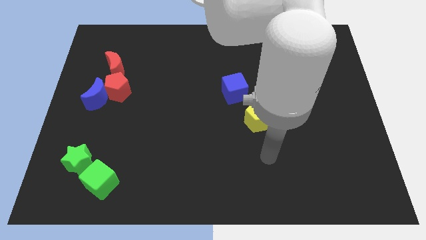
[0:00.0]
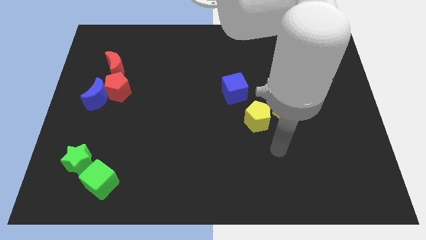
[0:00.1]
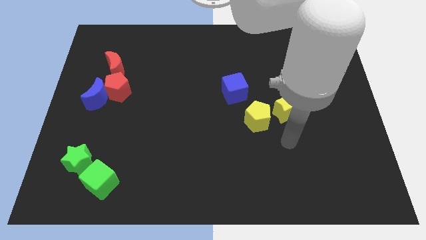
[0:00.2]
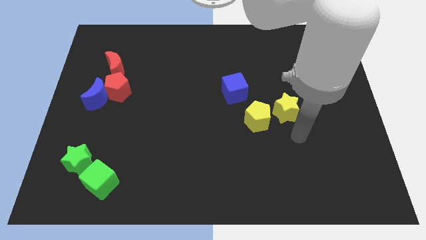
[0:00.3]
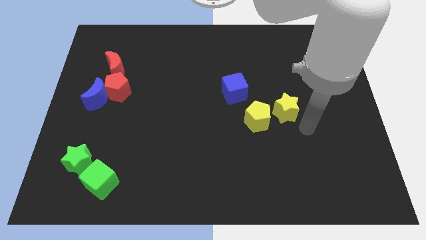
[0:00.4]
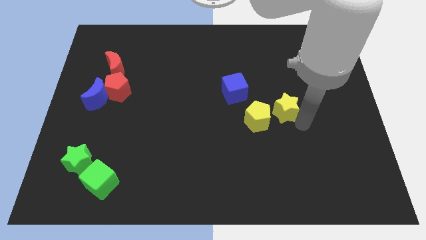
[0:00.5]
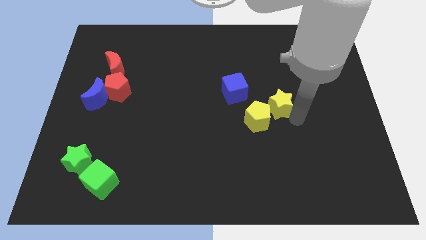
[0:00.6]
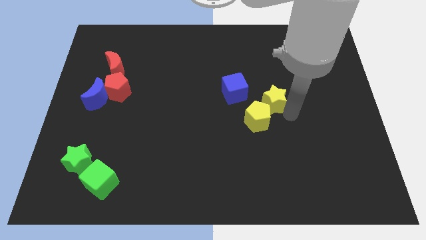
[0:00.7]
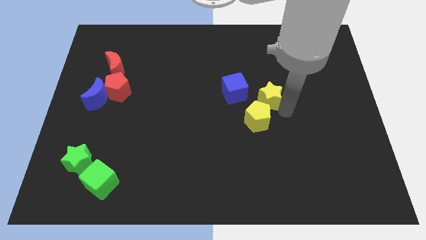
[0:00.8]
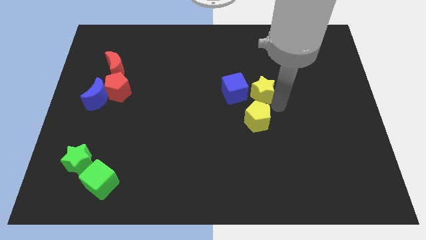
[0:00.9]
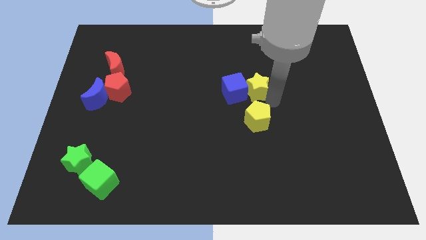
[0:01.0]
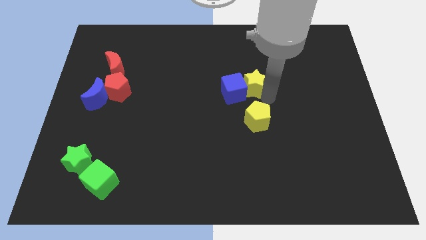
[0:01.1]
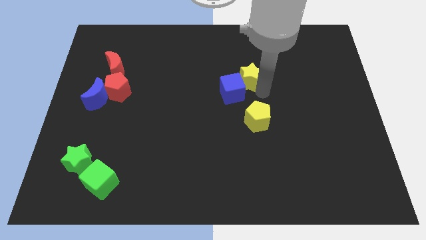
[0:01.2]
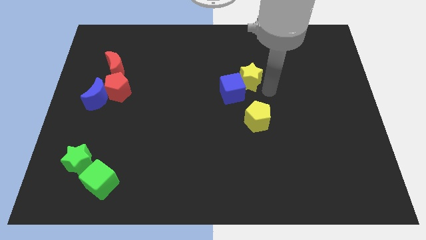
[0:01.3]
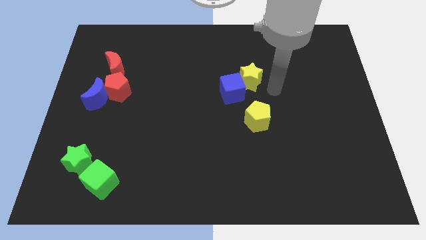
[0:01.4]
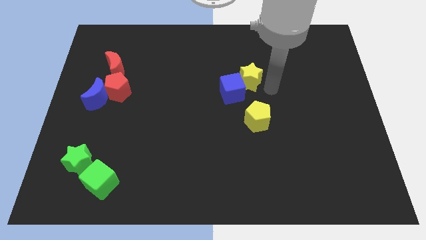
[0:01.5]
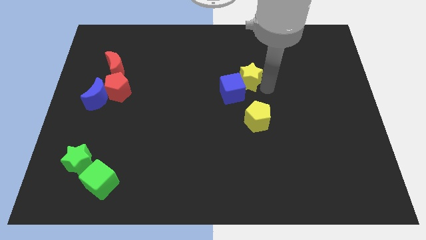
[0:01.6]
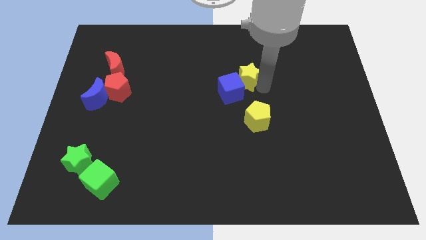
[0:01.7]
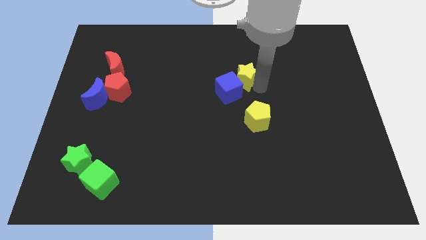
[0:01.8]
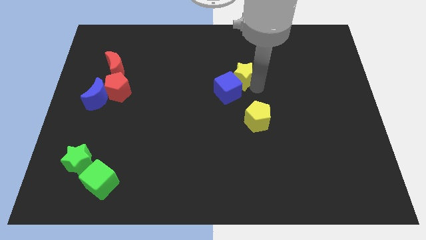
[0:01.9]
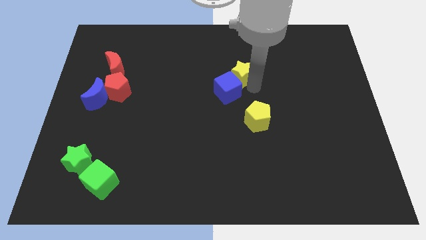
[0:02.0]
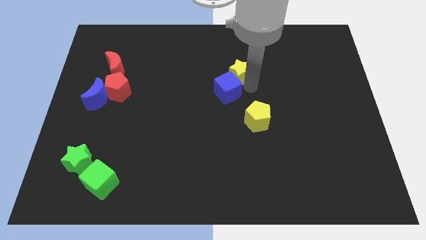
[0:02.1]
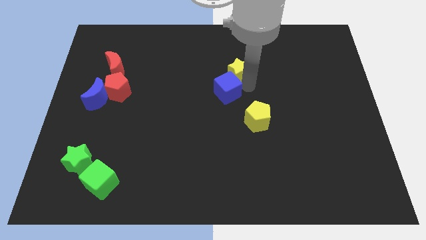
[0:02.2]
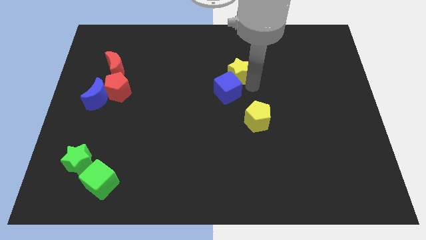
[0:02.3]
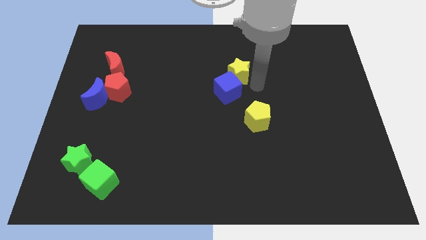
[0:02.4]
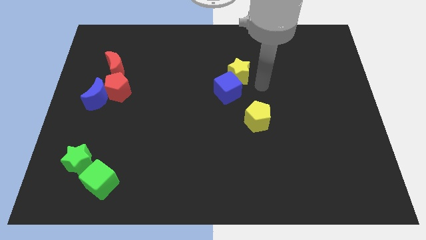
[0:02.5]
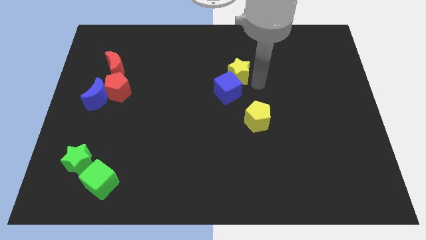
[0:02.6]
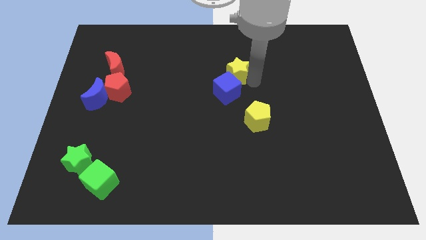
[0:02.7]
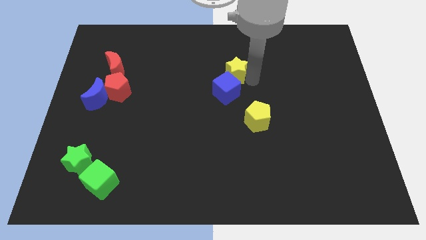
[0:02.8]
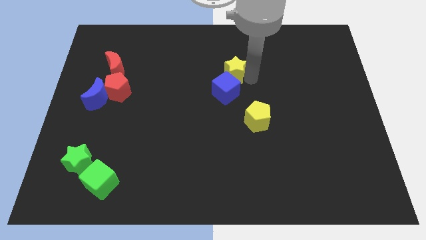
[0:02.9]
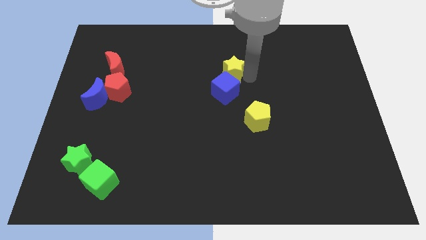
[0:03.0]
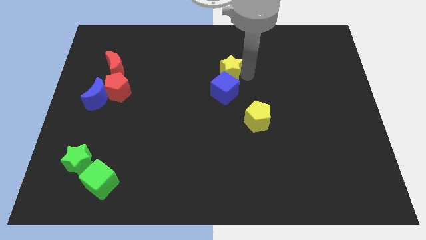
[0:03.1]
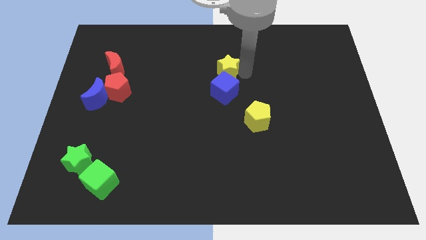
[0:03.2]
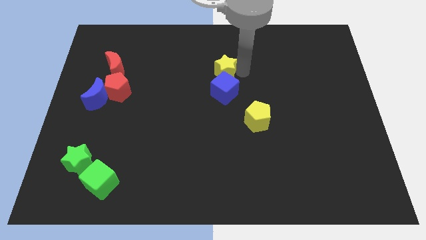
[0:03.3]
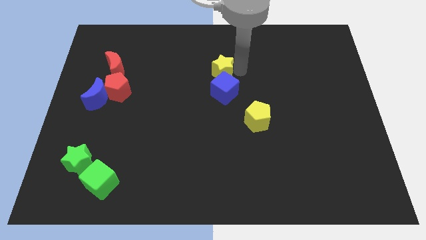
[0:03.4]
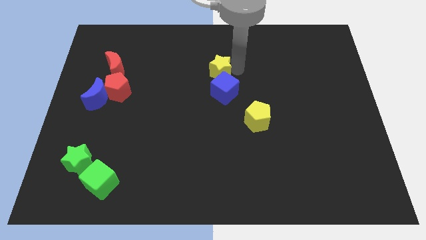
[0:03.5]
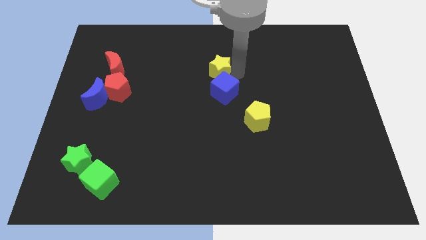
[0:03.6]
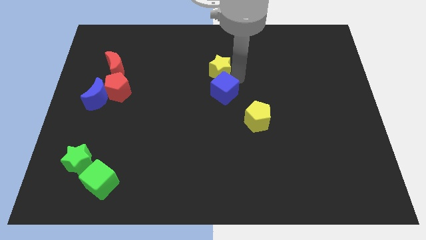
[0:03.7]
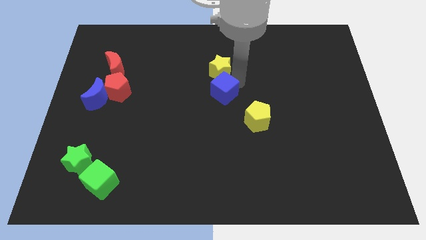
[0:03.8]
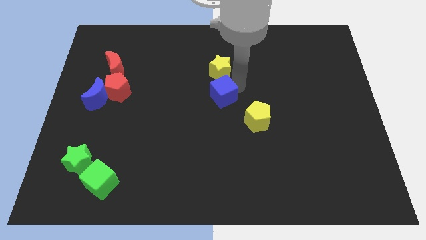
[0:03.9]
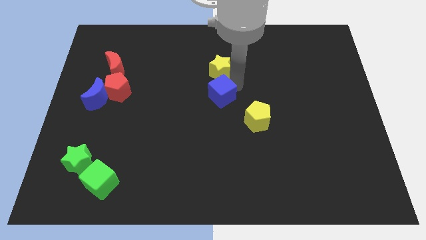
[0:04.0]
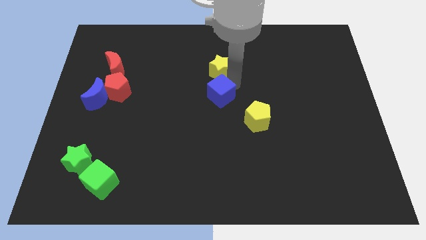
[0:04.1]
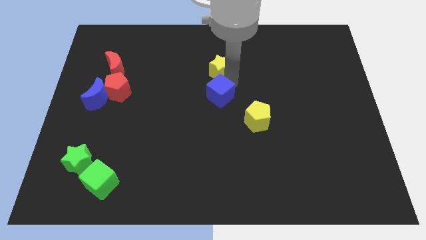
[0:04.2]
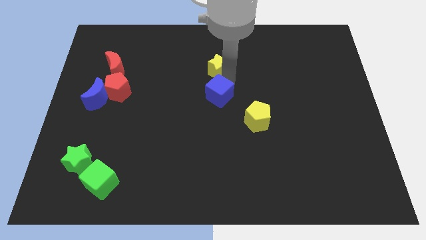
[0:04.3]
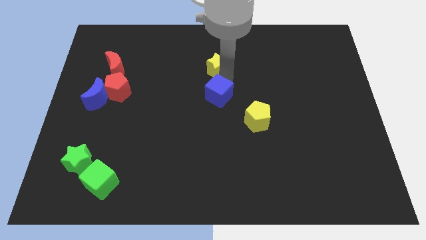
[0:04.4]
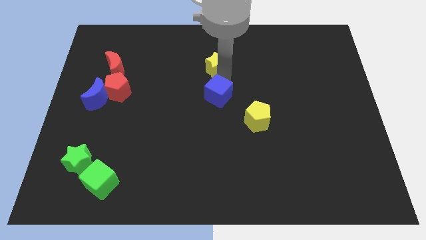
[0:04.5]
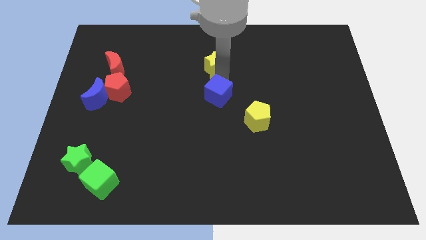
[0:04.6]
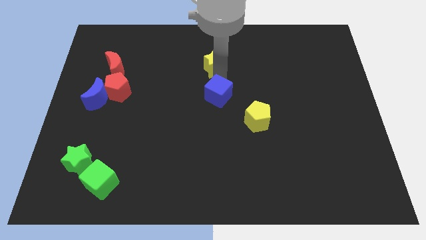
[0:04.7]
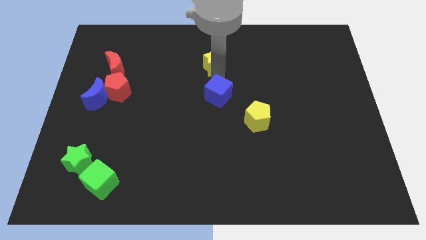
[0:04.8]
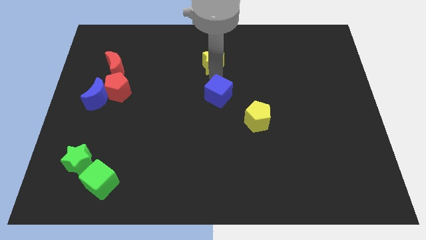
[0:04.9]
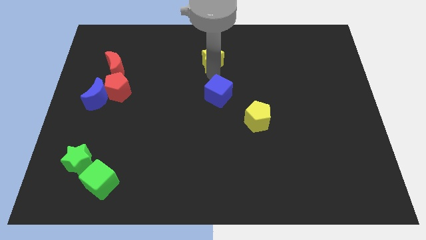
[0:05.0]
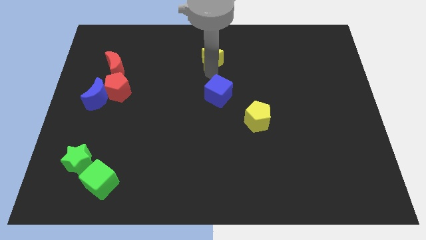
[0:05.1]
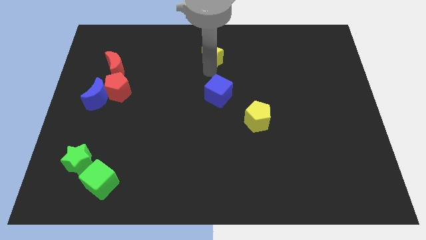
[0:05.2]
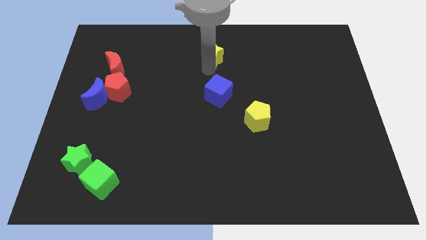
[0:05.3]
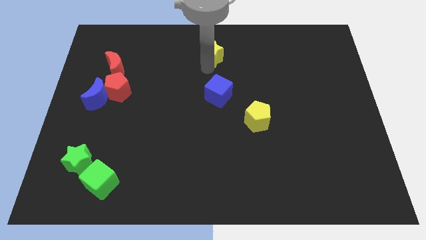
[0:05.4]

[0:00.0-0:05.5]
move the yellow star to the top side
